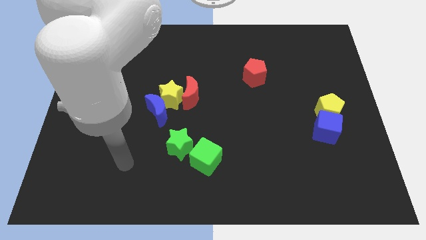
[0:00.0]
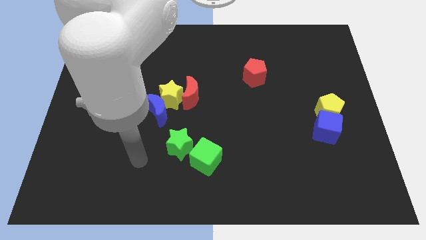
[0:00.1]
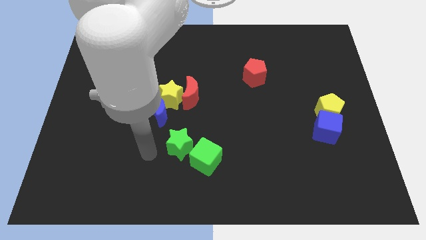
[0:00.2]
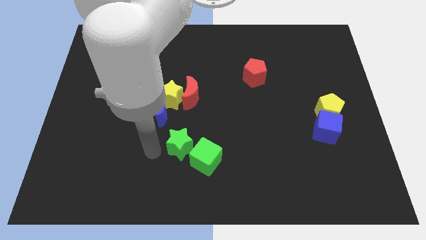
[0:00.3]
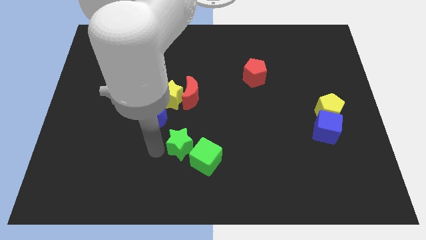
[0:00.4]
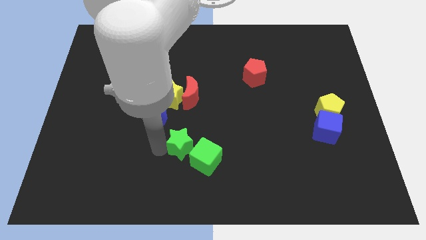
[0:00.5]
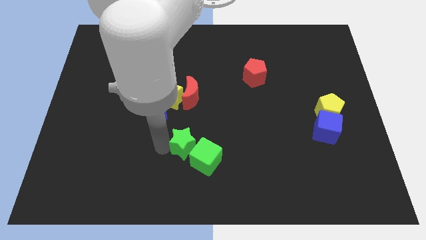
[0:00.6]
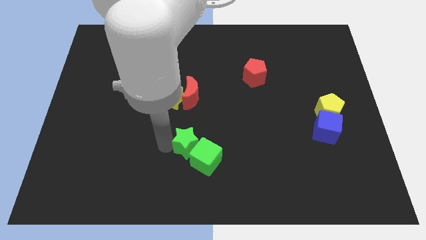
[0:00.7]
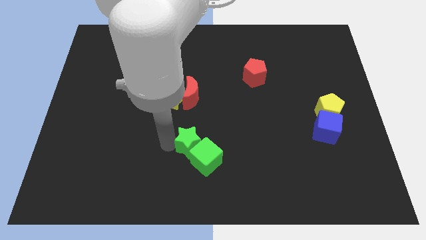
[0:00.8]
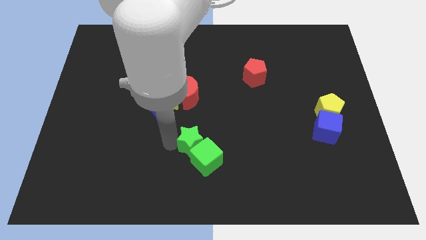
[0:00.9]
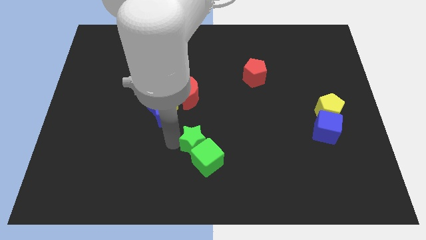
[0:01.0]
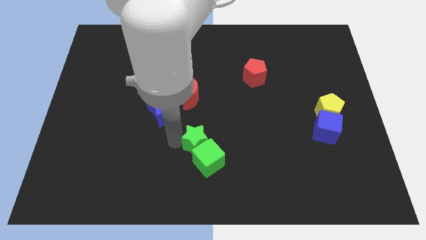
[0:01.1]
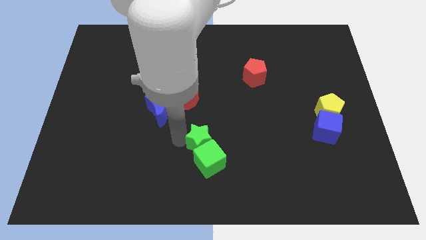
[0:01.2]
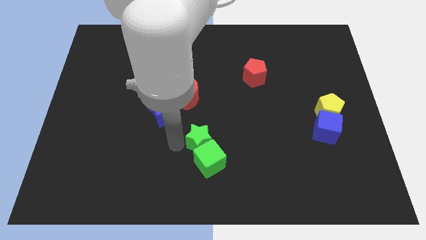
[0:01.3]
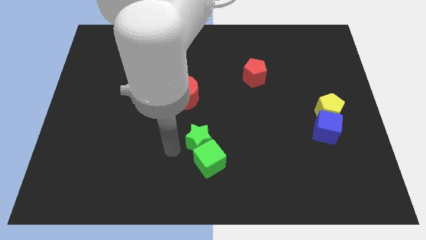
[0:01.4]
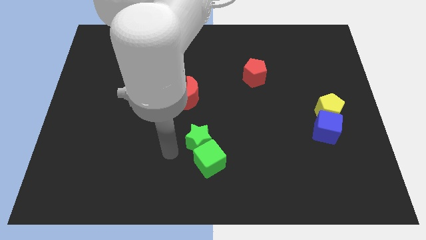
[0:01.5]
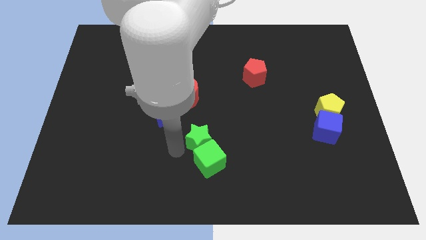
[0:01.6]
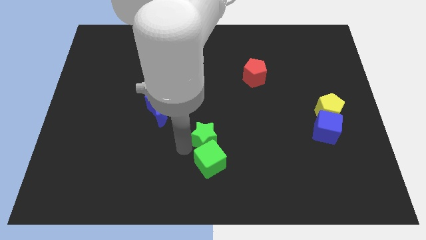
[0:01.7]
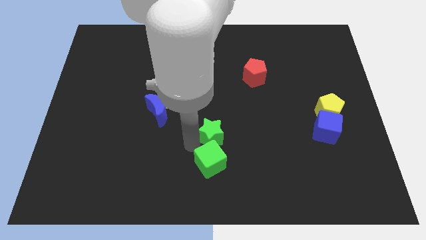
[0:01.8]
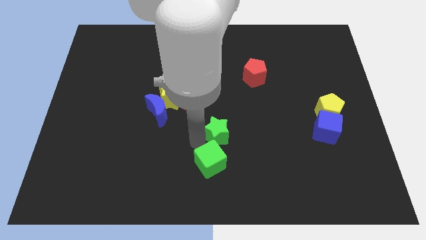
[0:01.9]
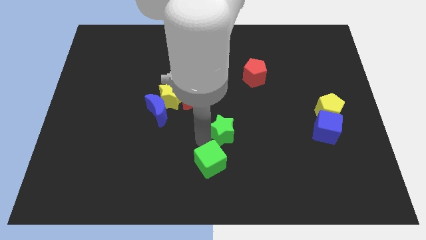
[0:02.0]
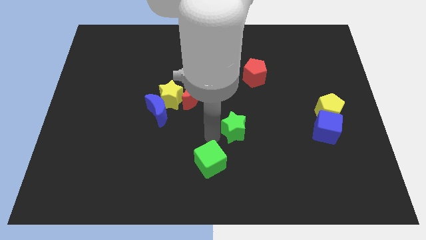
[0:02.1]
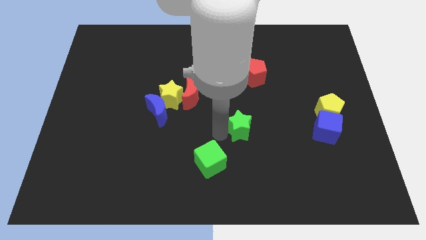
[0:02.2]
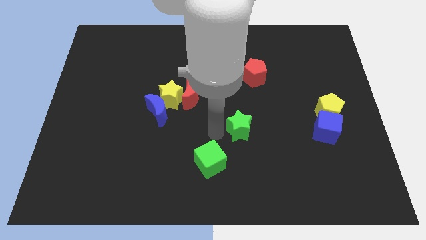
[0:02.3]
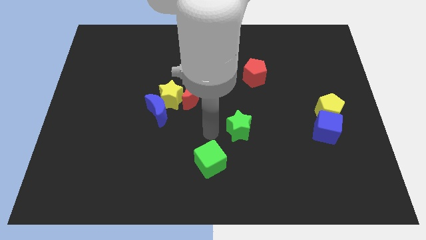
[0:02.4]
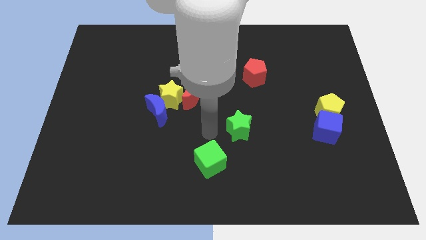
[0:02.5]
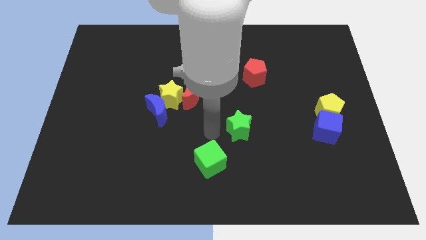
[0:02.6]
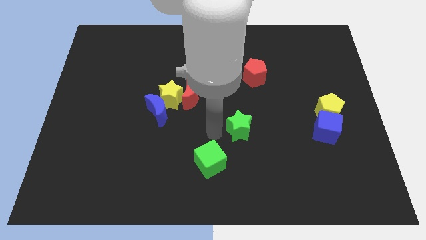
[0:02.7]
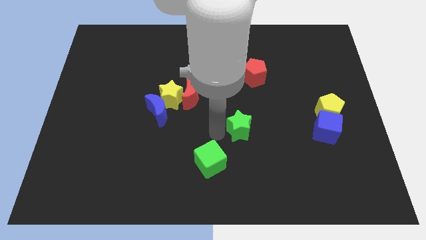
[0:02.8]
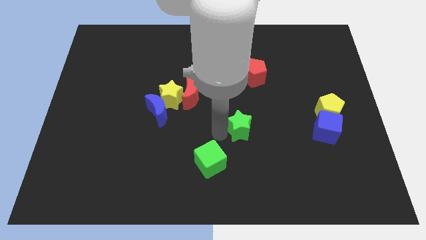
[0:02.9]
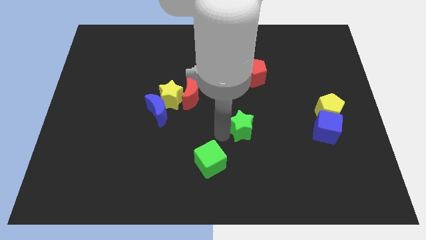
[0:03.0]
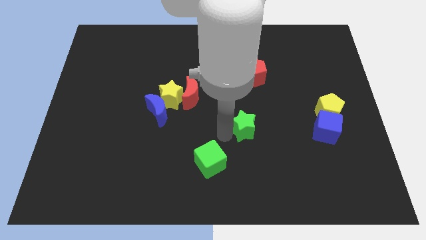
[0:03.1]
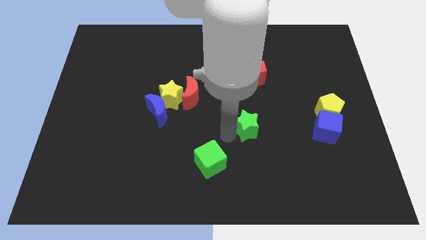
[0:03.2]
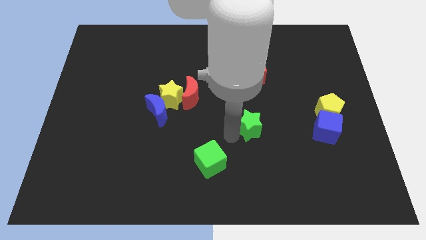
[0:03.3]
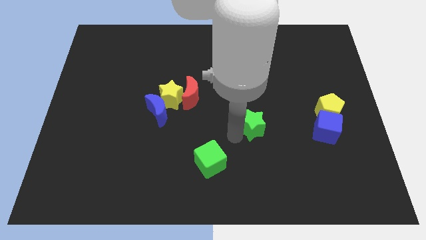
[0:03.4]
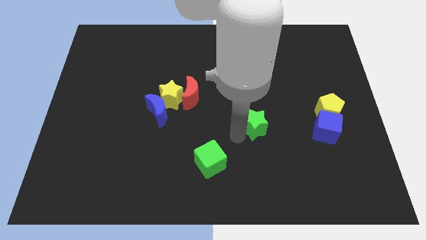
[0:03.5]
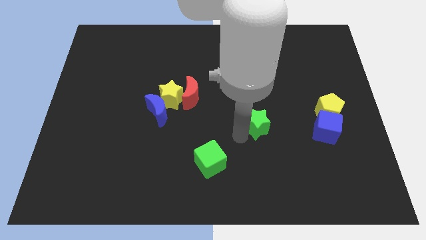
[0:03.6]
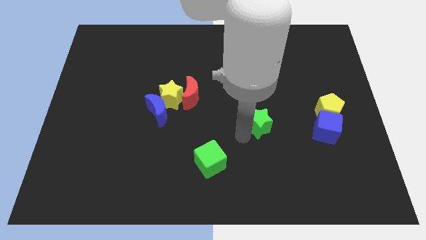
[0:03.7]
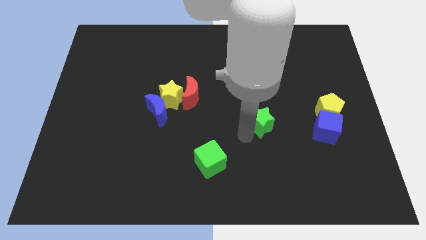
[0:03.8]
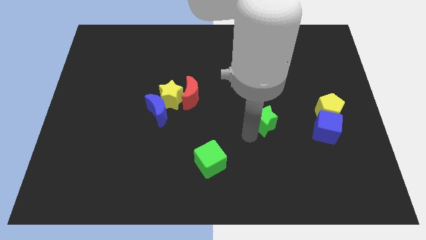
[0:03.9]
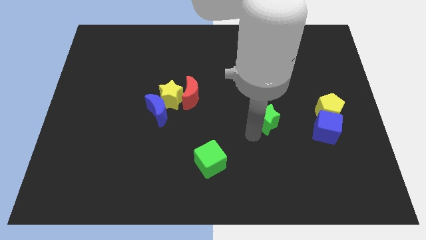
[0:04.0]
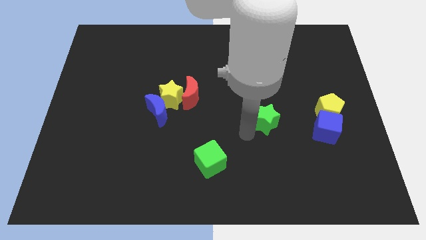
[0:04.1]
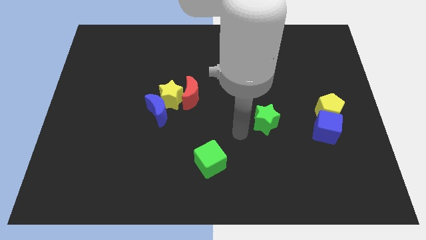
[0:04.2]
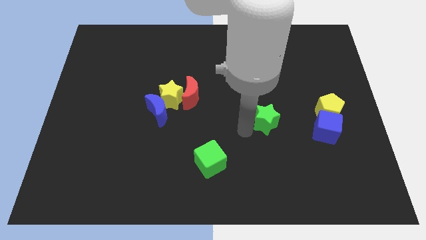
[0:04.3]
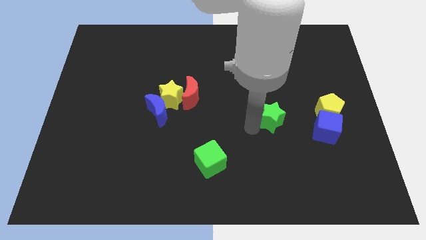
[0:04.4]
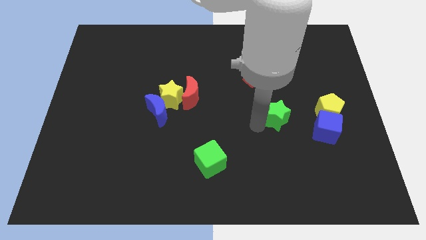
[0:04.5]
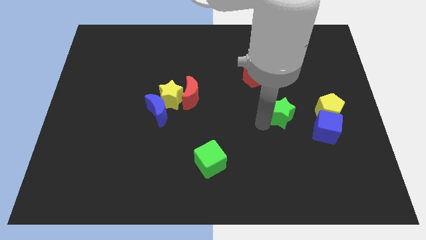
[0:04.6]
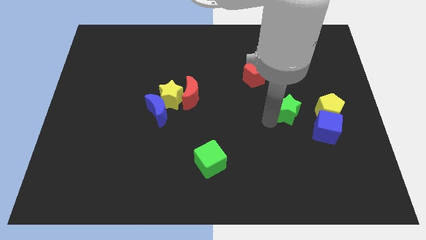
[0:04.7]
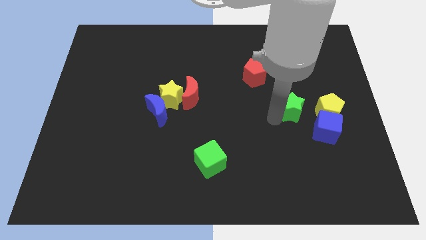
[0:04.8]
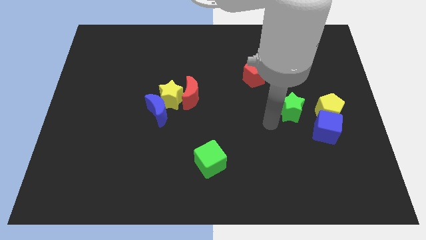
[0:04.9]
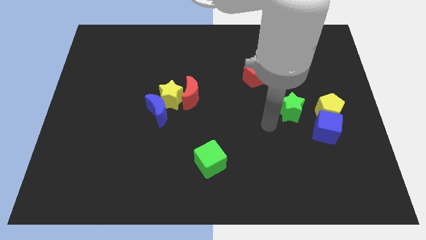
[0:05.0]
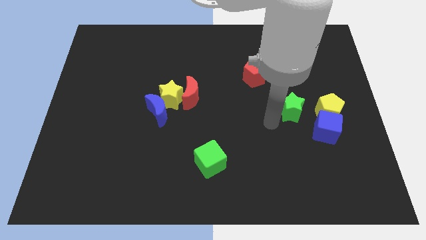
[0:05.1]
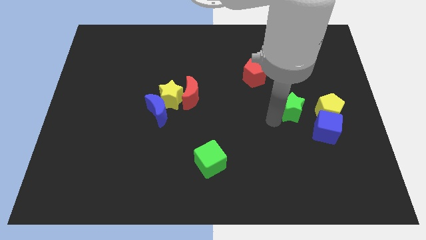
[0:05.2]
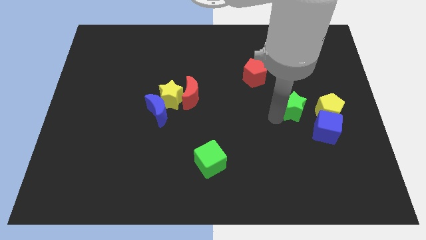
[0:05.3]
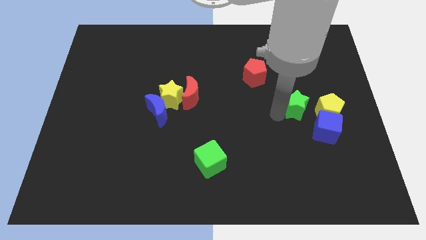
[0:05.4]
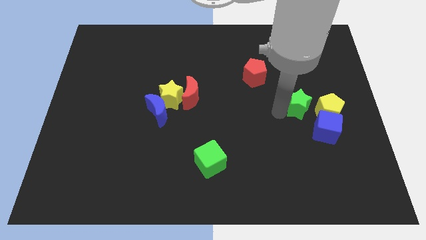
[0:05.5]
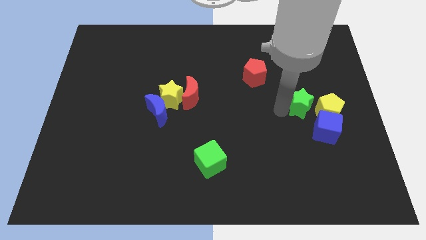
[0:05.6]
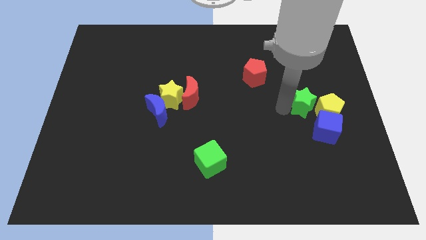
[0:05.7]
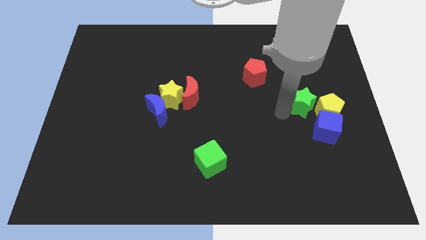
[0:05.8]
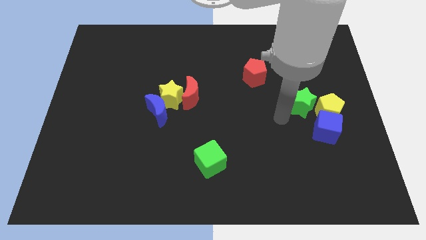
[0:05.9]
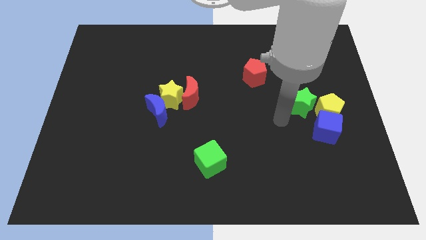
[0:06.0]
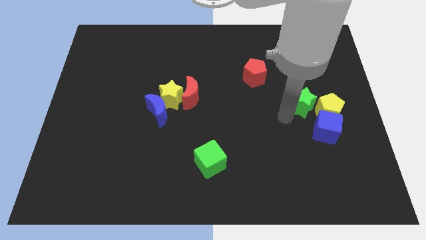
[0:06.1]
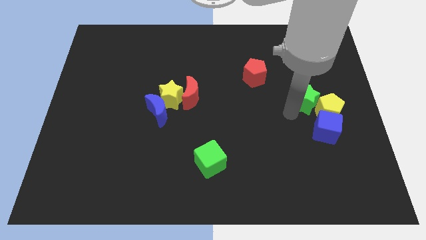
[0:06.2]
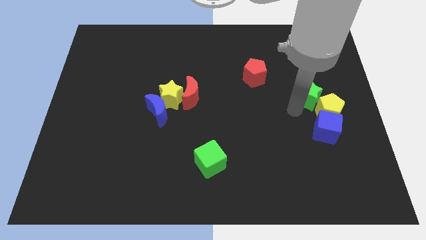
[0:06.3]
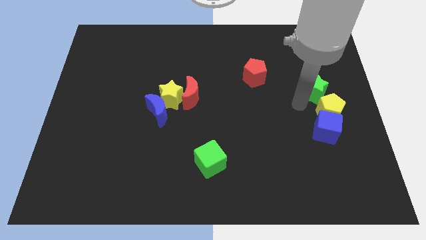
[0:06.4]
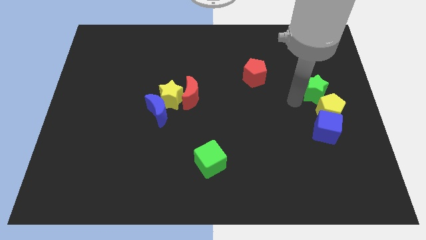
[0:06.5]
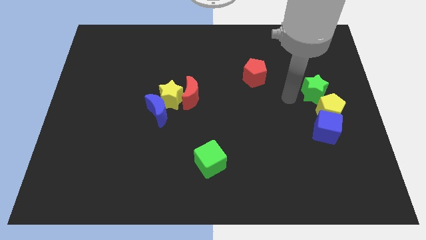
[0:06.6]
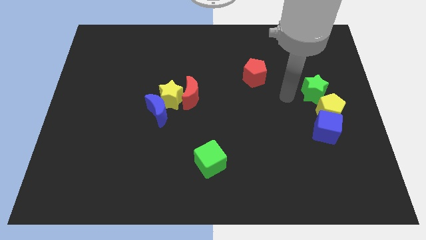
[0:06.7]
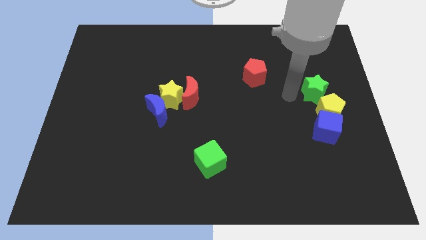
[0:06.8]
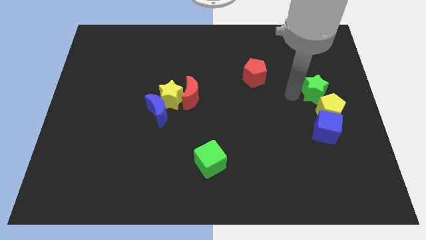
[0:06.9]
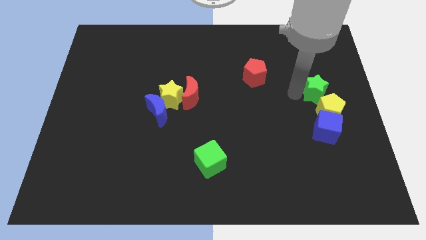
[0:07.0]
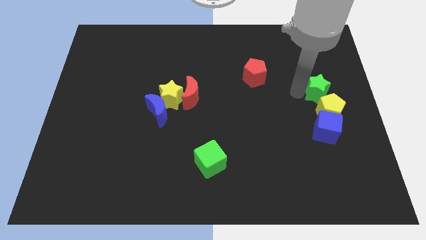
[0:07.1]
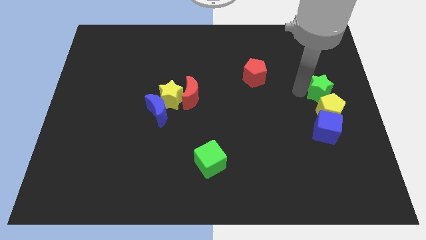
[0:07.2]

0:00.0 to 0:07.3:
move the green star to the right side of the board
